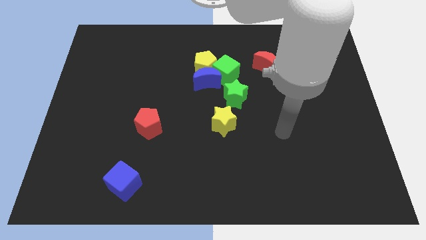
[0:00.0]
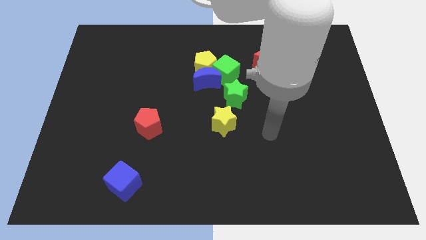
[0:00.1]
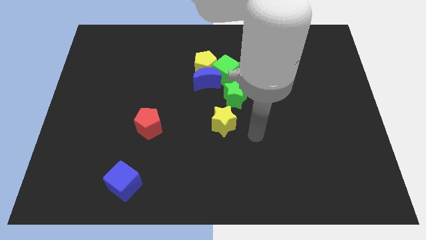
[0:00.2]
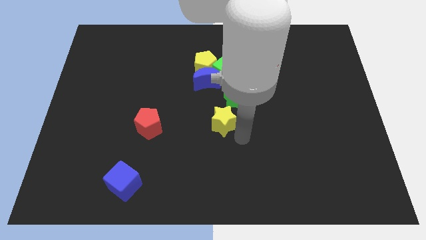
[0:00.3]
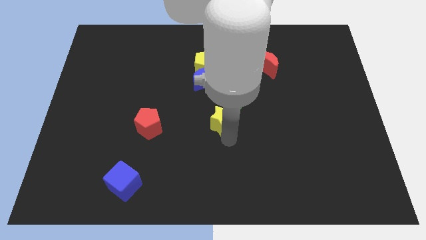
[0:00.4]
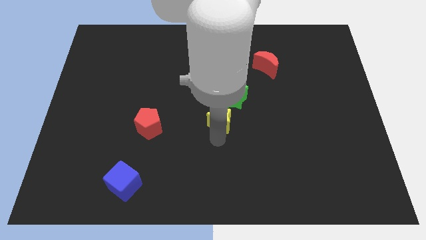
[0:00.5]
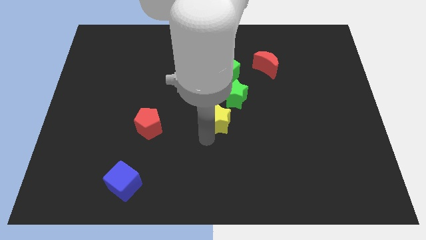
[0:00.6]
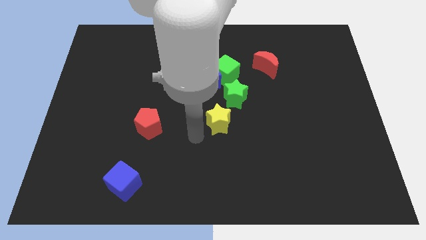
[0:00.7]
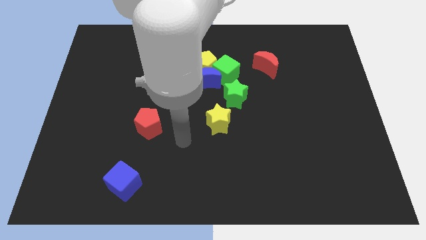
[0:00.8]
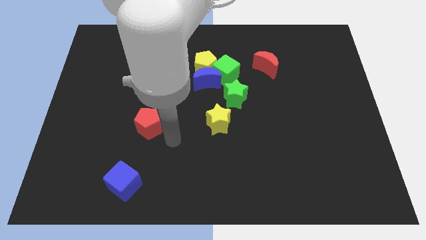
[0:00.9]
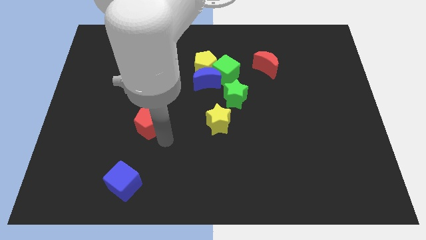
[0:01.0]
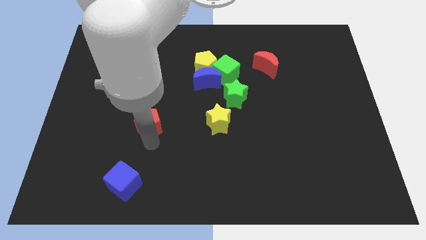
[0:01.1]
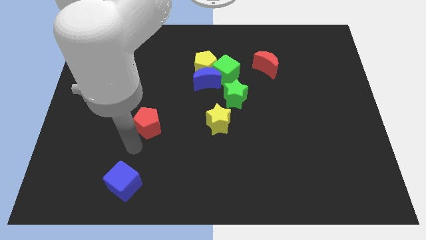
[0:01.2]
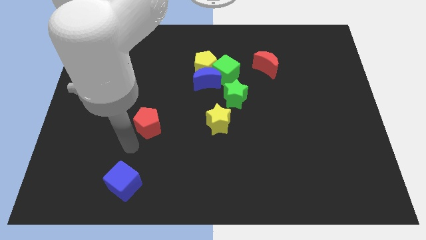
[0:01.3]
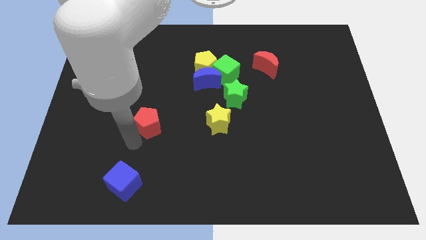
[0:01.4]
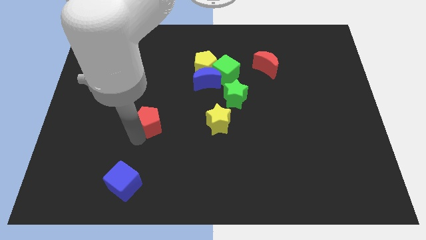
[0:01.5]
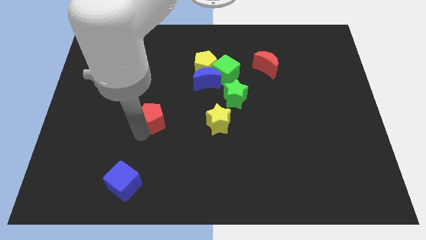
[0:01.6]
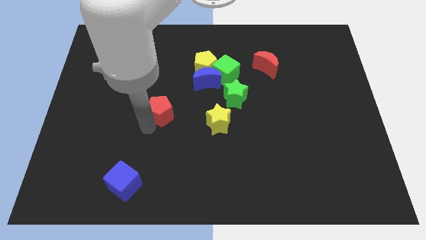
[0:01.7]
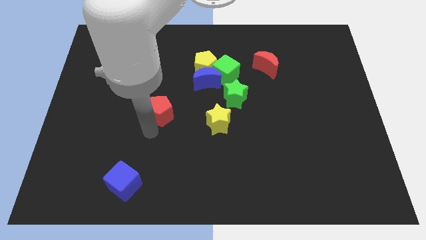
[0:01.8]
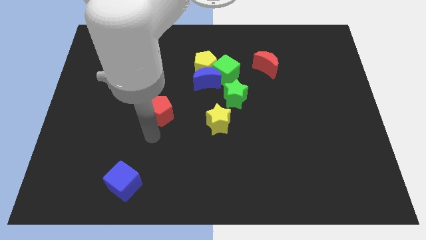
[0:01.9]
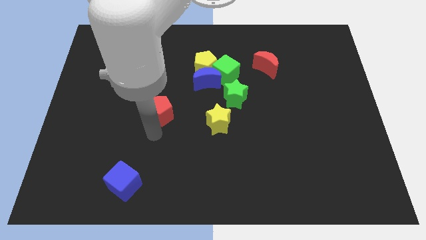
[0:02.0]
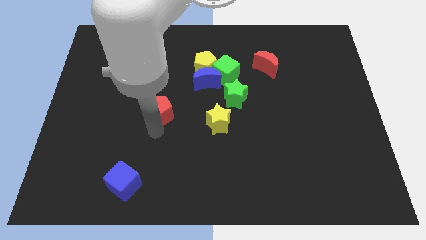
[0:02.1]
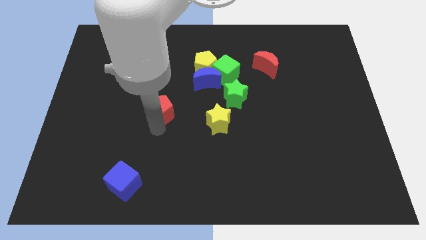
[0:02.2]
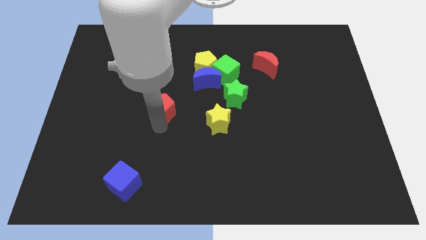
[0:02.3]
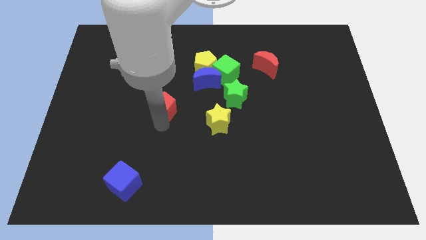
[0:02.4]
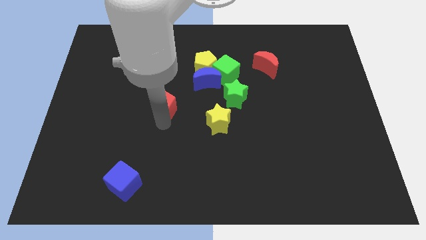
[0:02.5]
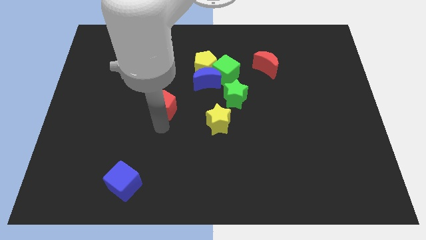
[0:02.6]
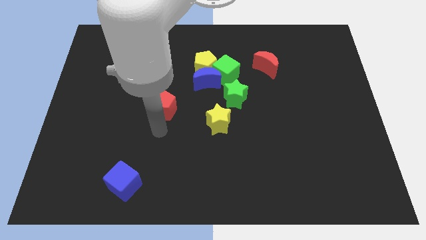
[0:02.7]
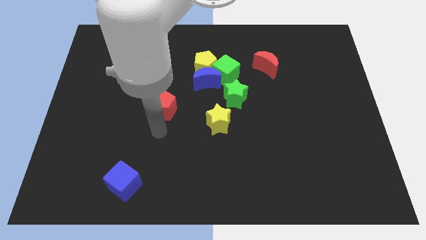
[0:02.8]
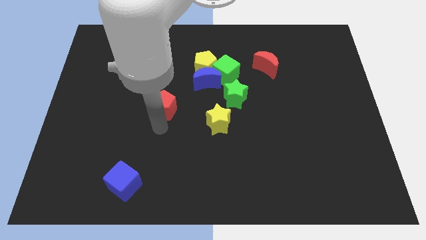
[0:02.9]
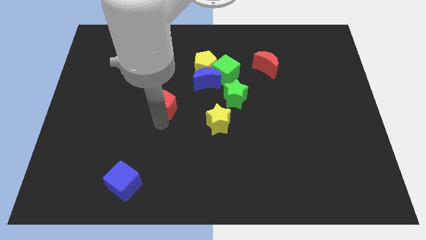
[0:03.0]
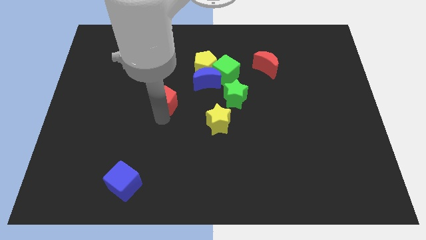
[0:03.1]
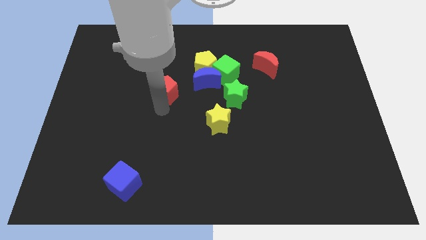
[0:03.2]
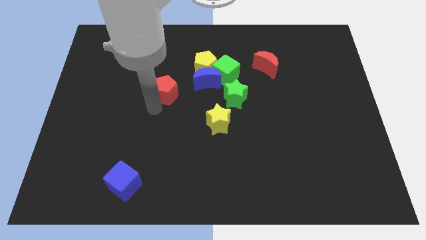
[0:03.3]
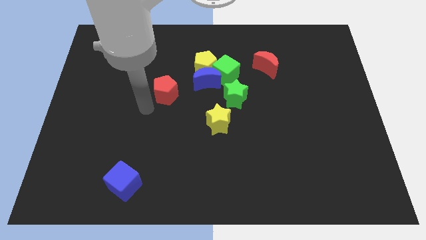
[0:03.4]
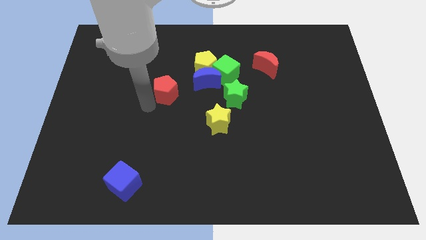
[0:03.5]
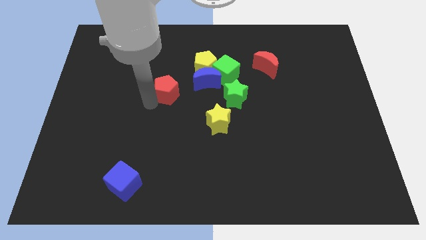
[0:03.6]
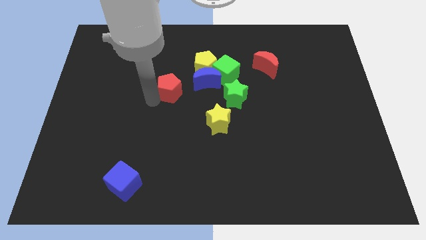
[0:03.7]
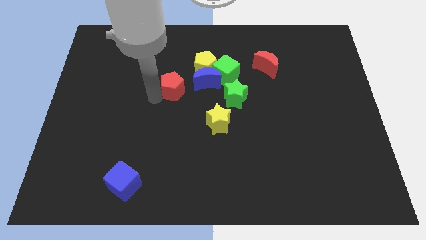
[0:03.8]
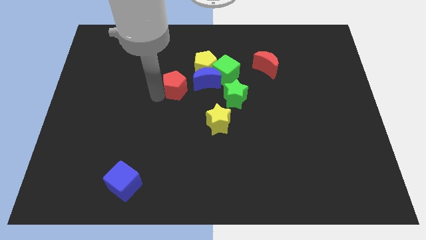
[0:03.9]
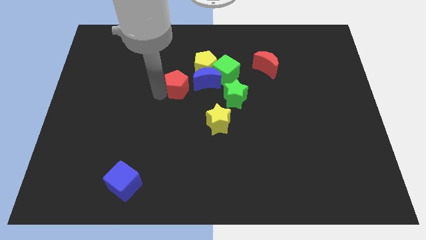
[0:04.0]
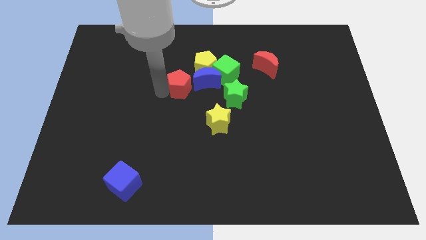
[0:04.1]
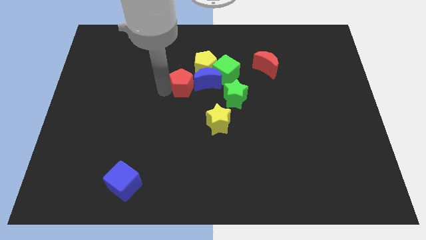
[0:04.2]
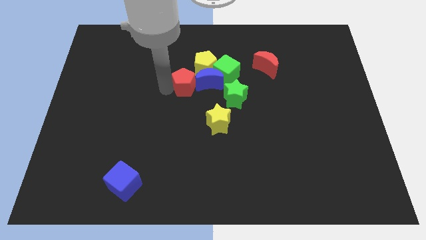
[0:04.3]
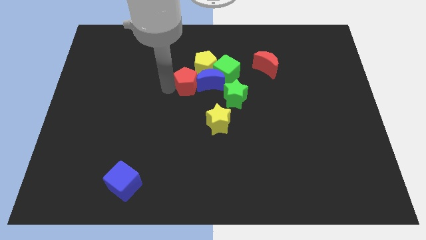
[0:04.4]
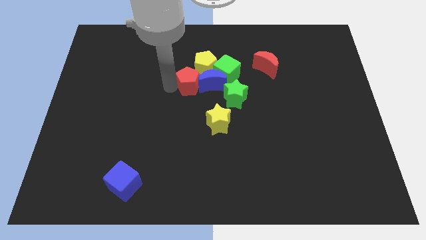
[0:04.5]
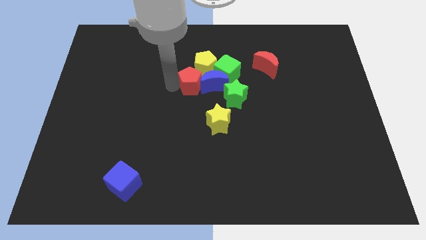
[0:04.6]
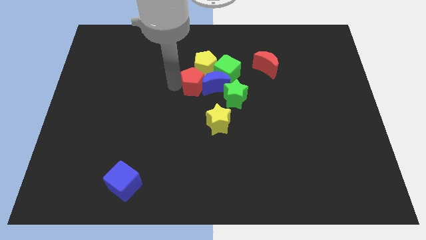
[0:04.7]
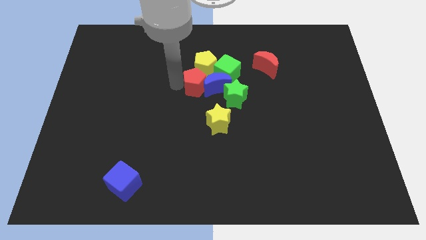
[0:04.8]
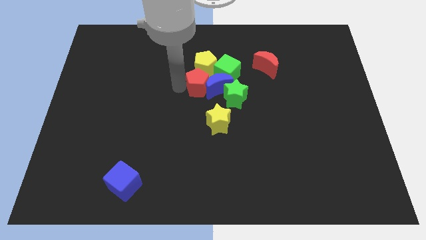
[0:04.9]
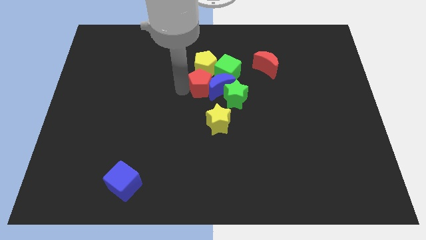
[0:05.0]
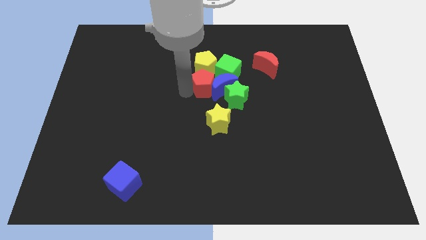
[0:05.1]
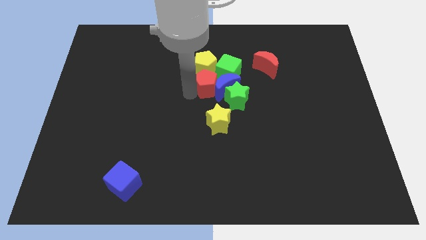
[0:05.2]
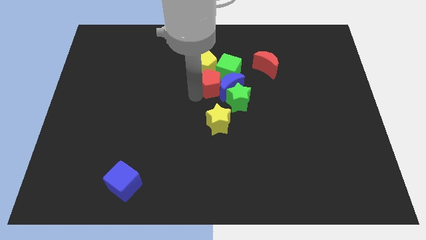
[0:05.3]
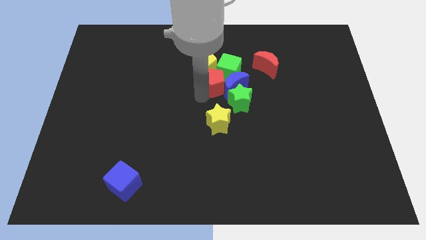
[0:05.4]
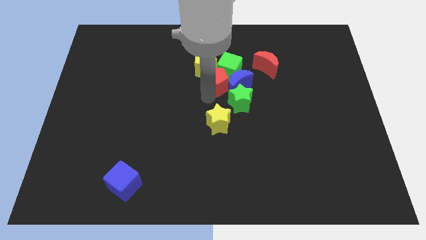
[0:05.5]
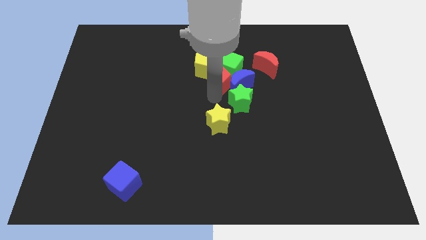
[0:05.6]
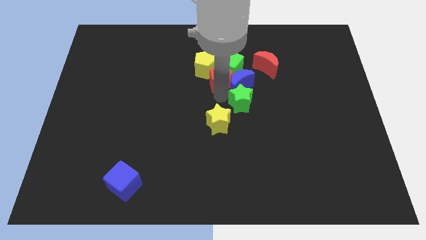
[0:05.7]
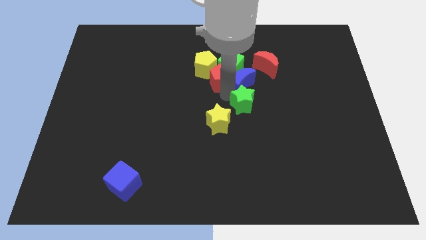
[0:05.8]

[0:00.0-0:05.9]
push the red pentagon towards the yellow pentagon

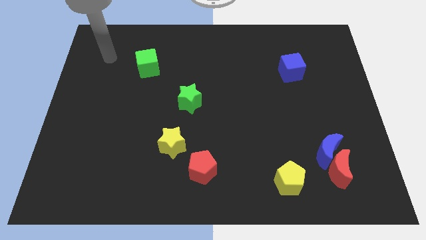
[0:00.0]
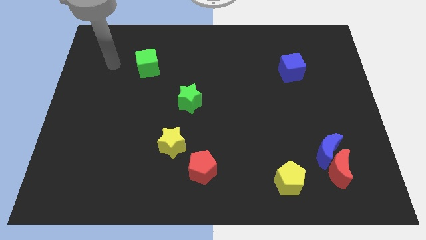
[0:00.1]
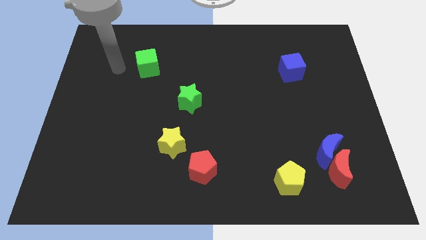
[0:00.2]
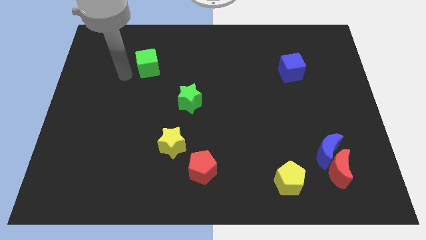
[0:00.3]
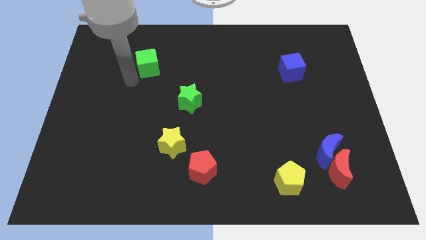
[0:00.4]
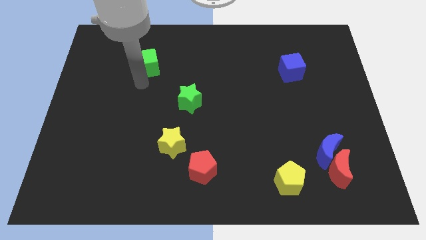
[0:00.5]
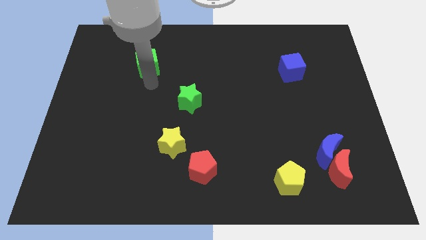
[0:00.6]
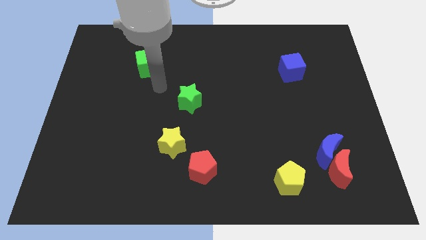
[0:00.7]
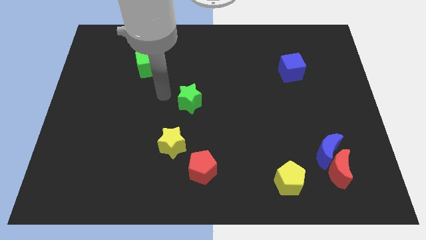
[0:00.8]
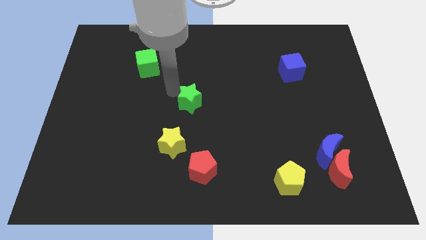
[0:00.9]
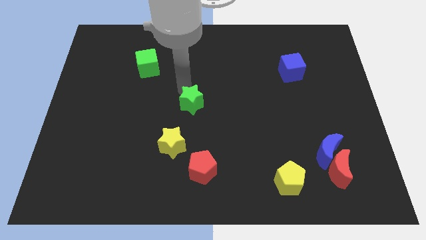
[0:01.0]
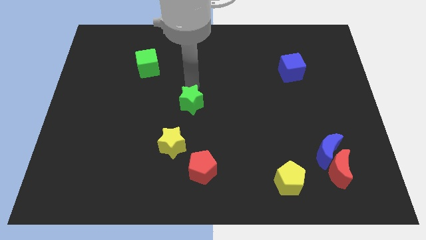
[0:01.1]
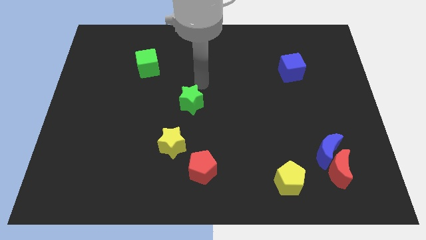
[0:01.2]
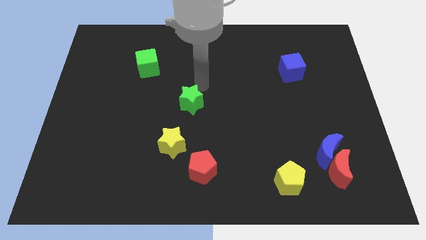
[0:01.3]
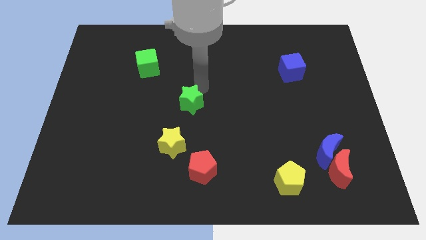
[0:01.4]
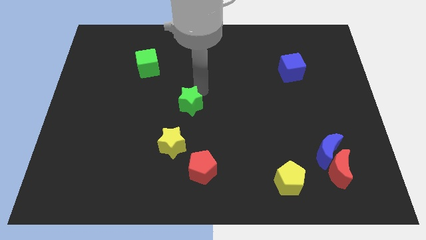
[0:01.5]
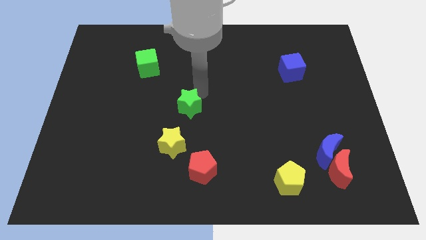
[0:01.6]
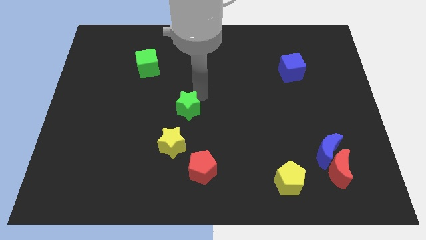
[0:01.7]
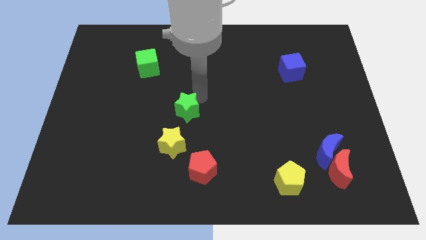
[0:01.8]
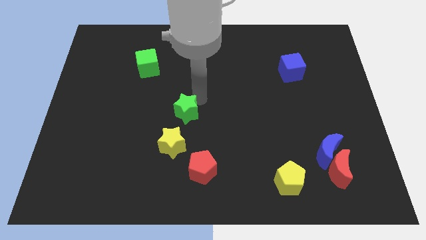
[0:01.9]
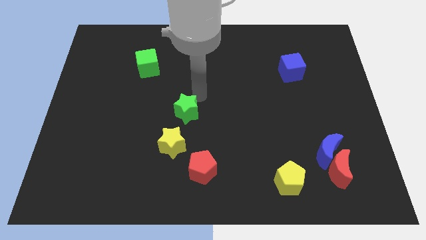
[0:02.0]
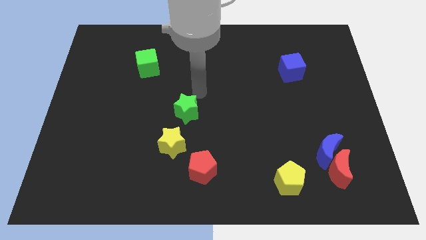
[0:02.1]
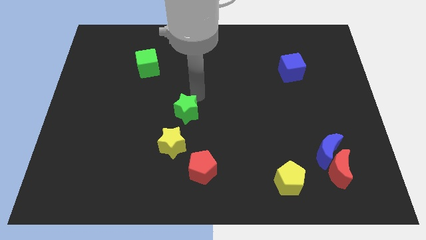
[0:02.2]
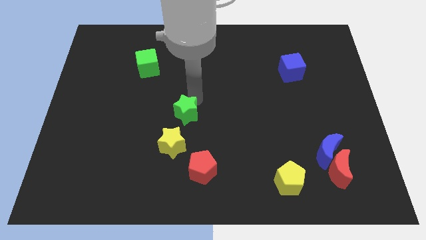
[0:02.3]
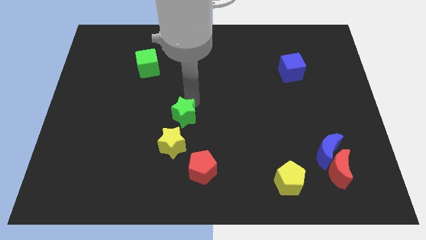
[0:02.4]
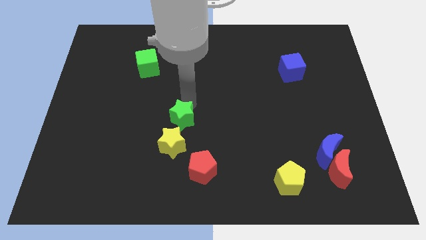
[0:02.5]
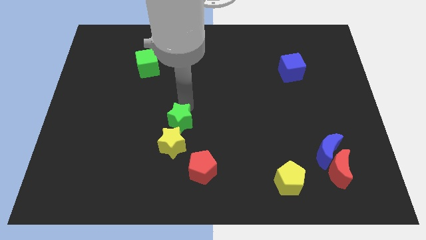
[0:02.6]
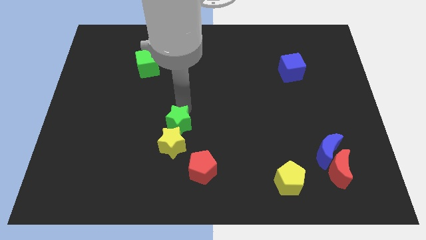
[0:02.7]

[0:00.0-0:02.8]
slide the green star towards the yellow star
